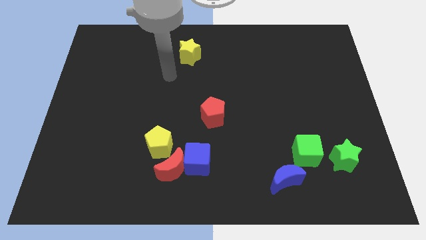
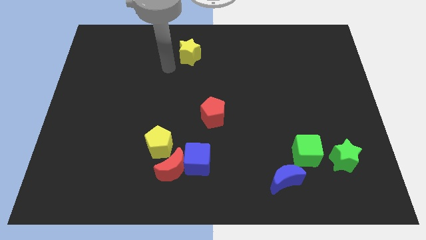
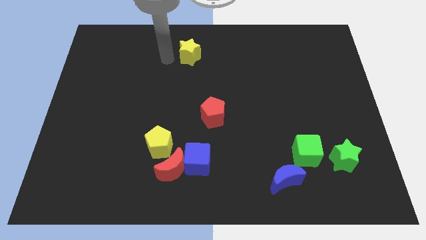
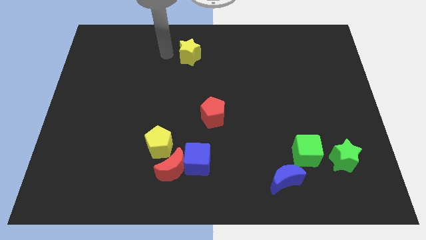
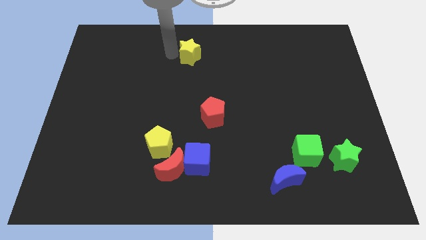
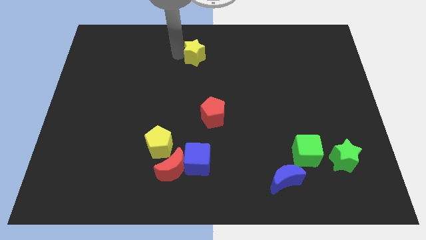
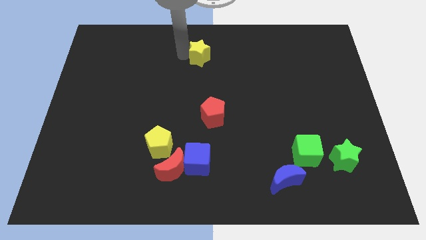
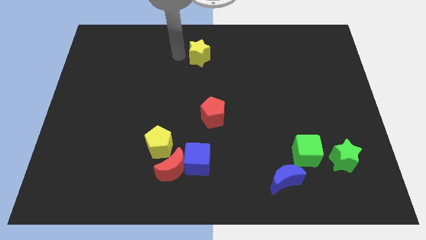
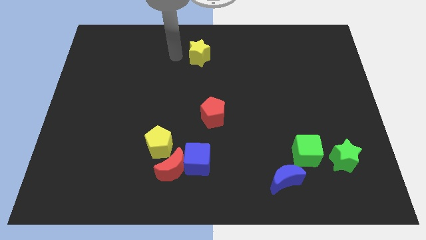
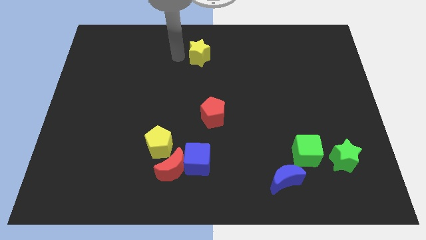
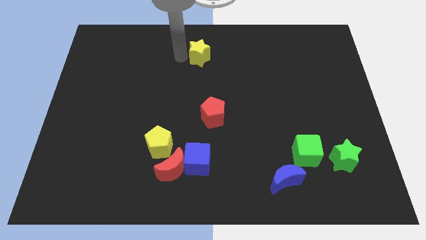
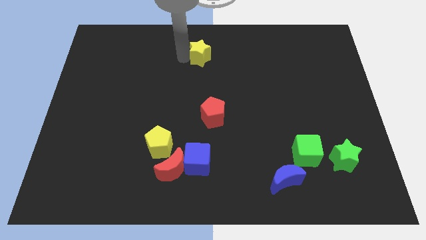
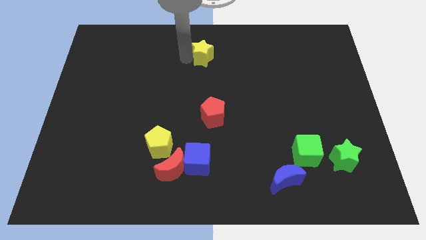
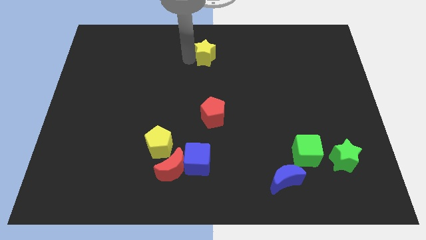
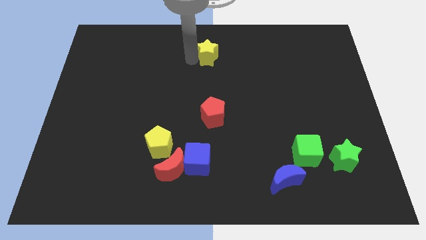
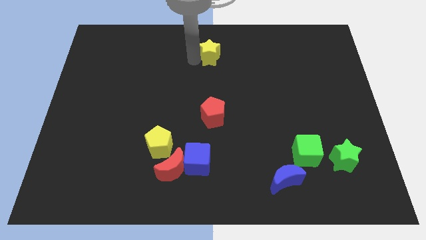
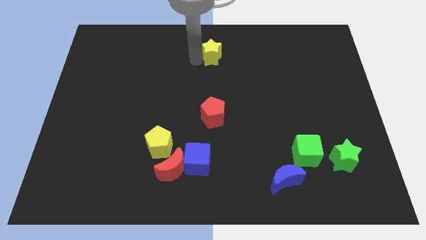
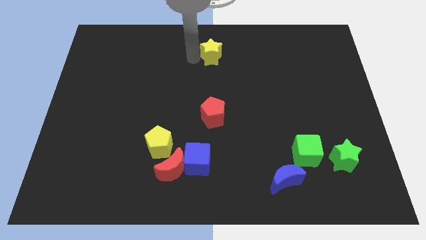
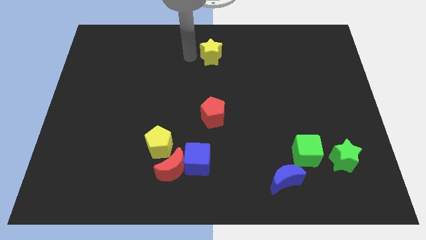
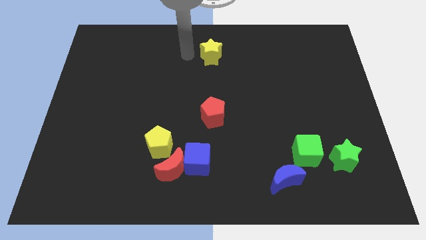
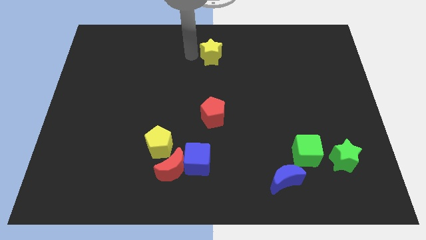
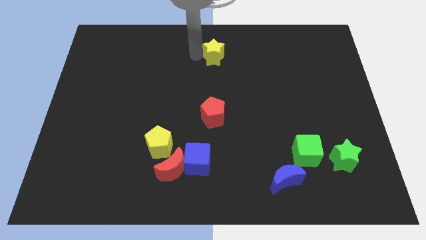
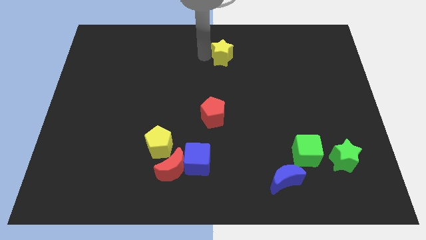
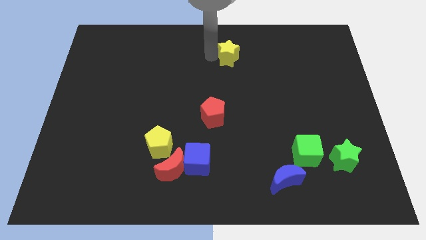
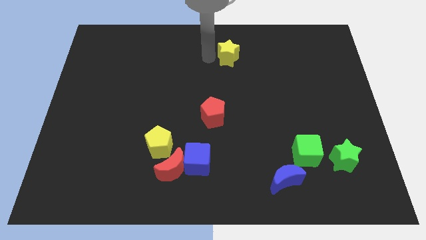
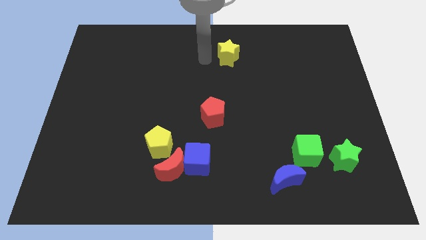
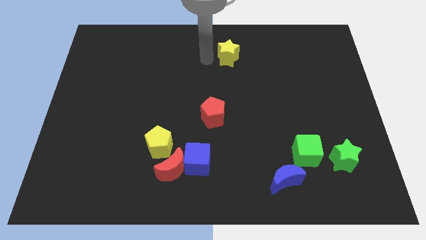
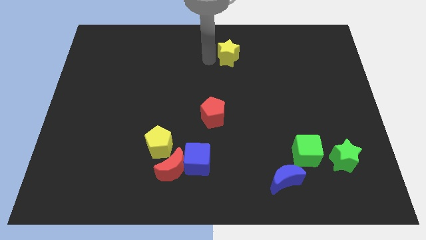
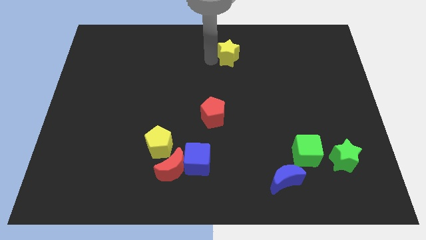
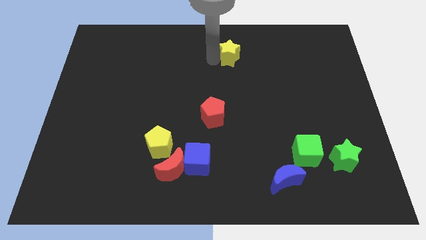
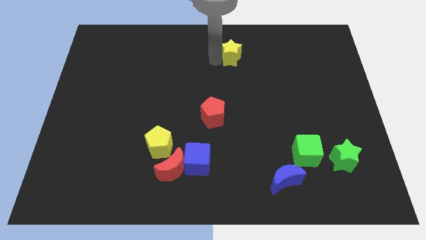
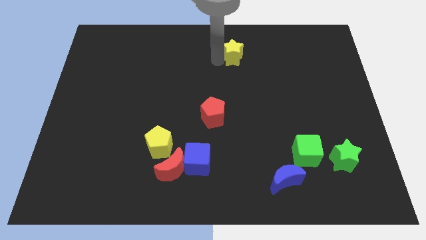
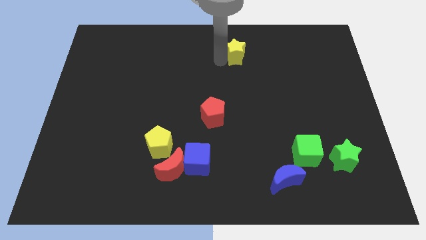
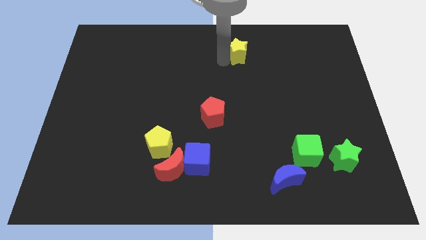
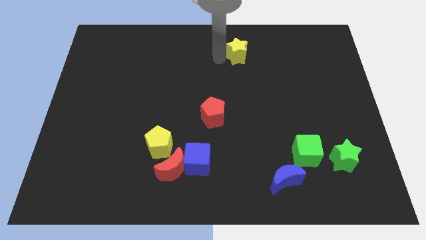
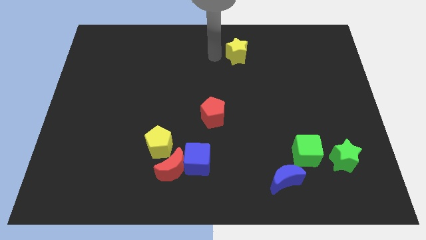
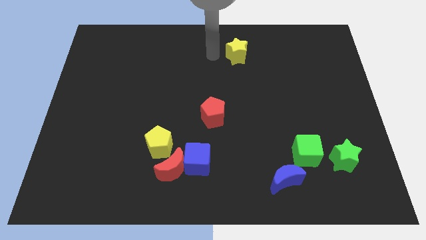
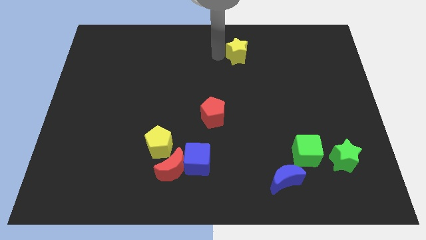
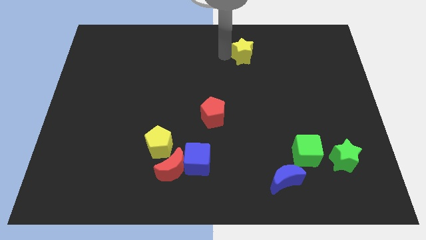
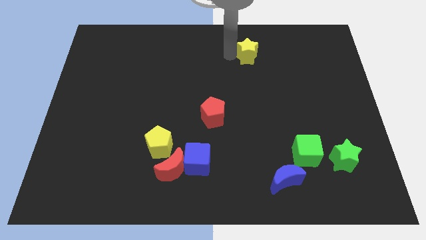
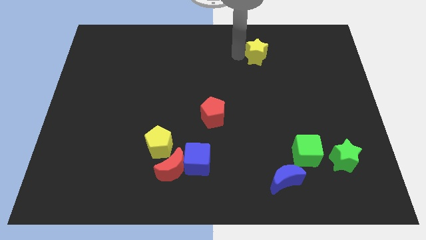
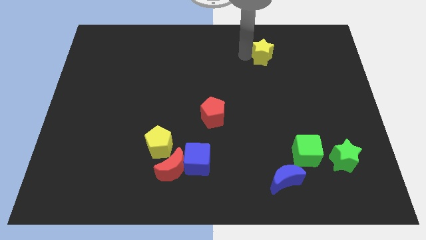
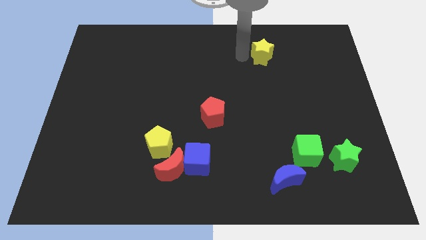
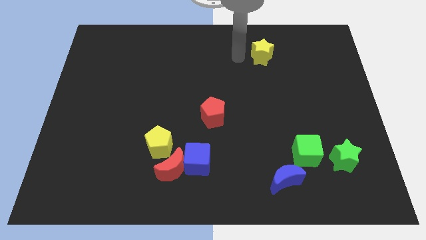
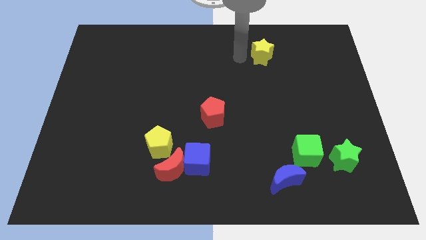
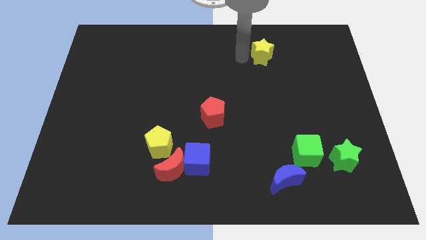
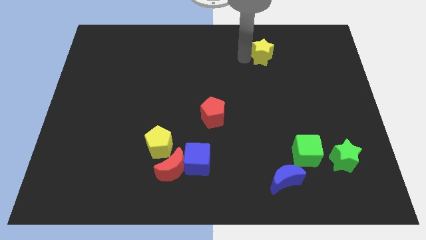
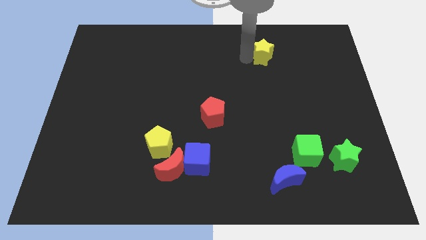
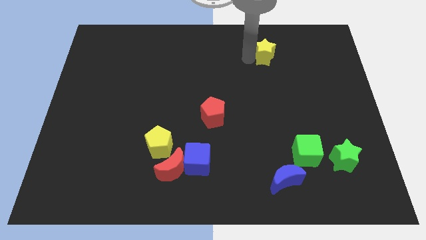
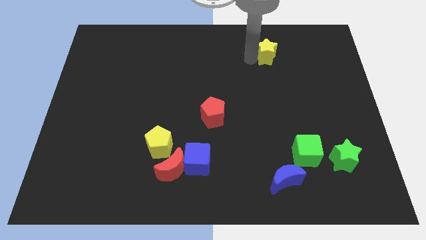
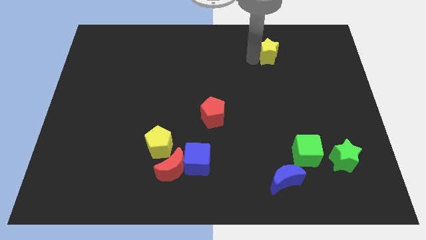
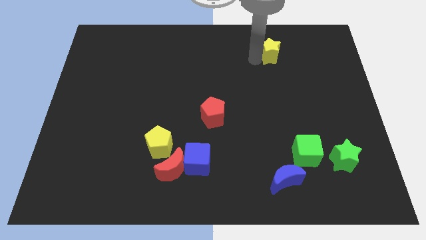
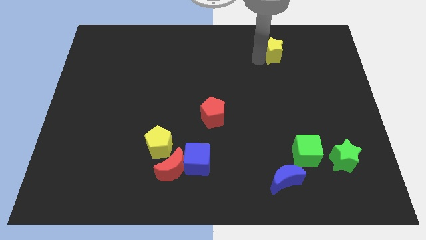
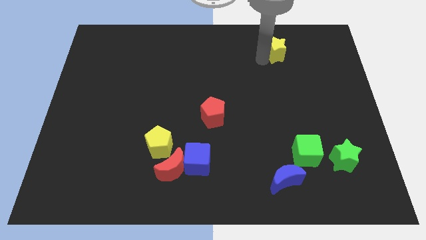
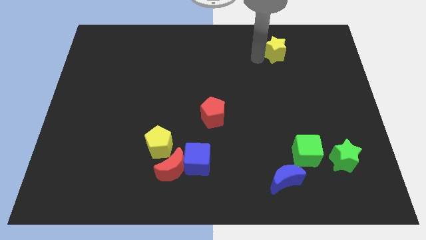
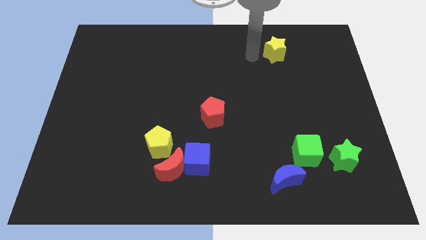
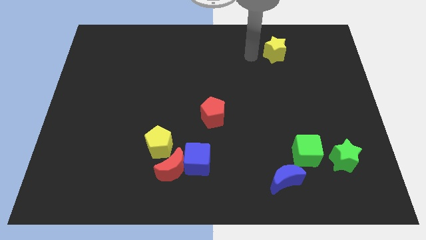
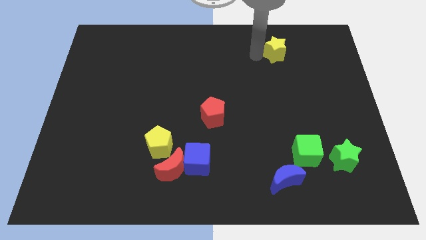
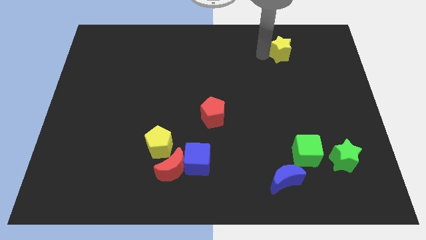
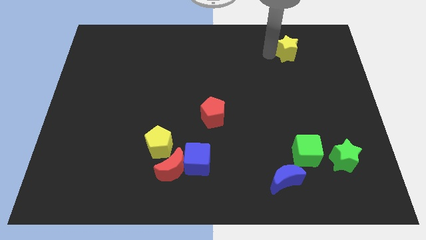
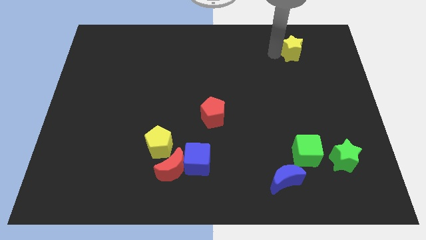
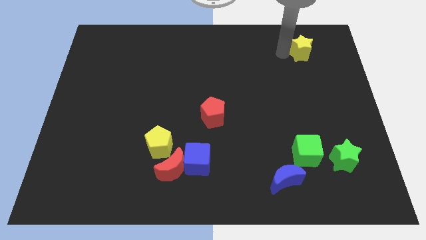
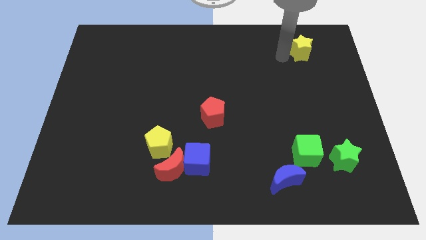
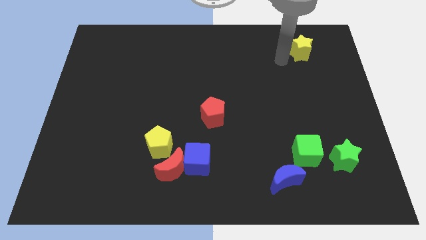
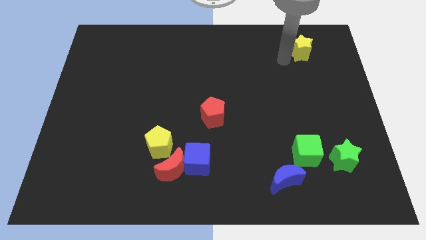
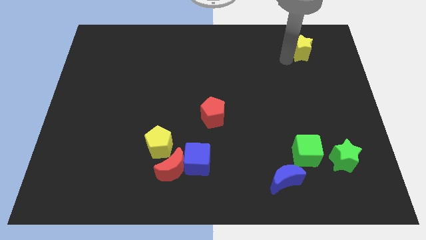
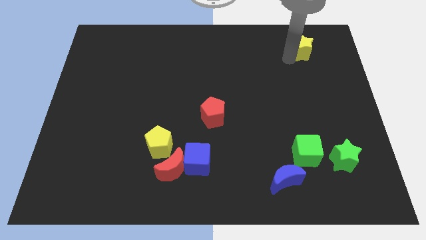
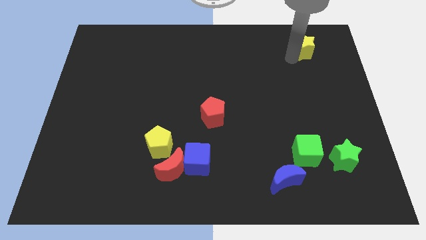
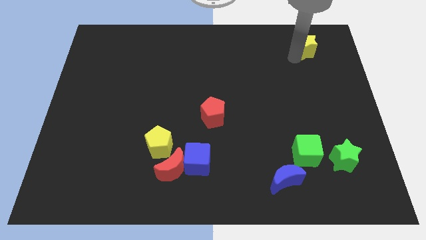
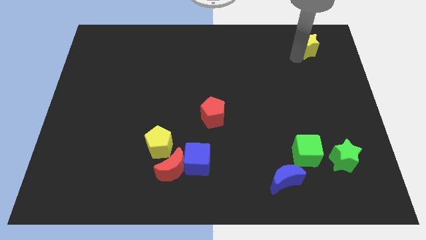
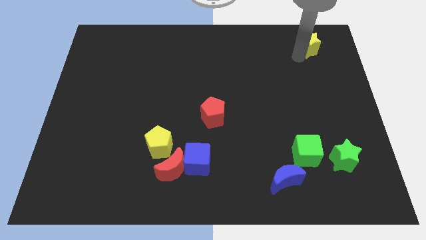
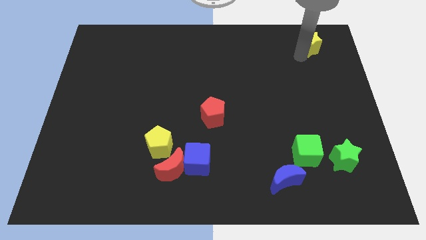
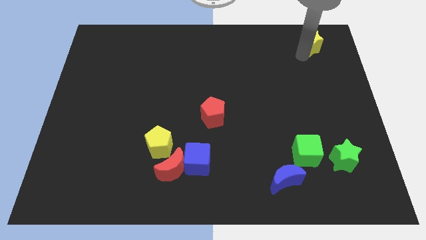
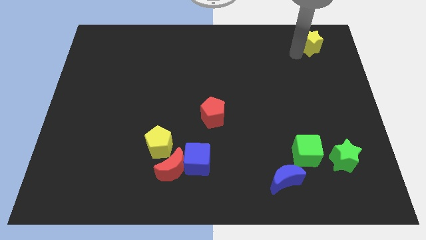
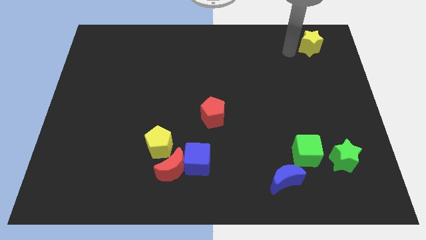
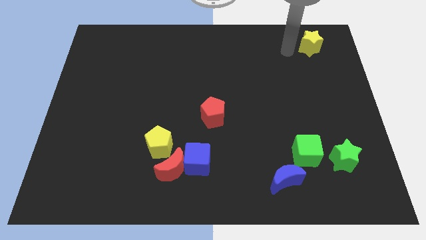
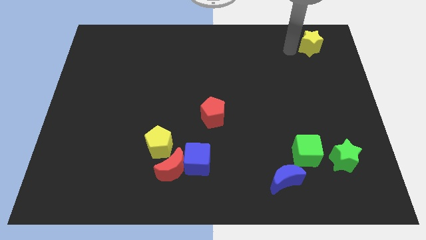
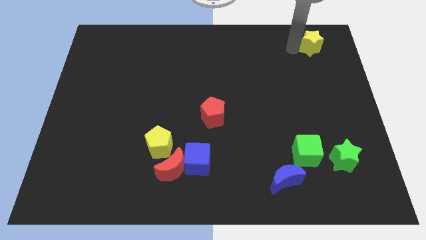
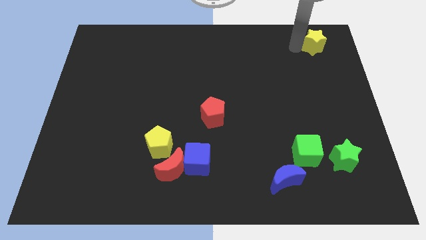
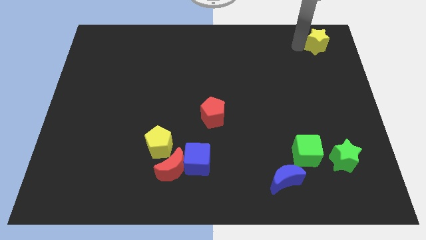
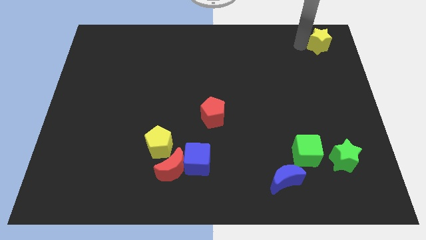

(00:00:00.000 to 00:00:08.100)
put the yellow star to the top right of the board
